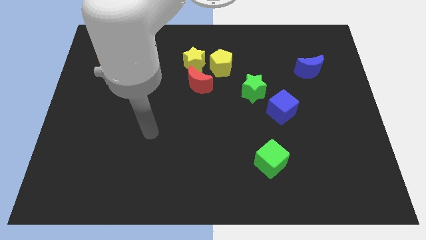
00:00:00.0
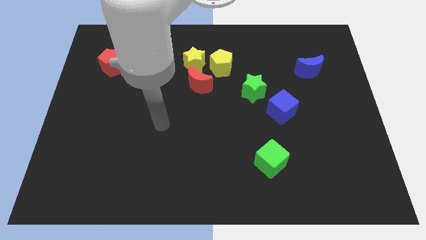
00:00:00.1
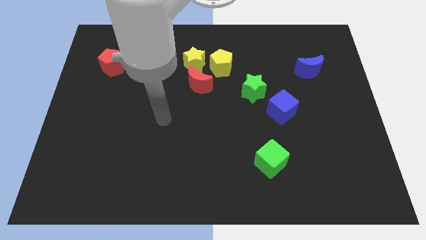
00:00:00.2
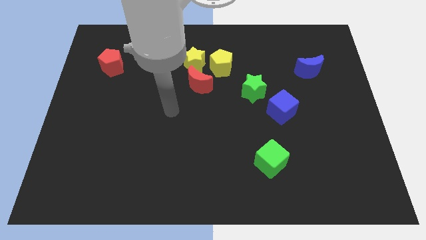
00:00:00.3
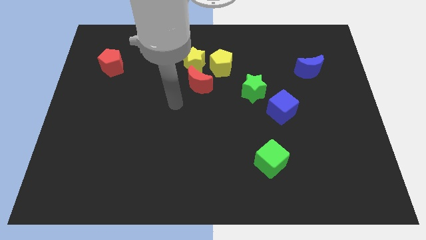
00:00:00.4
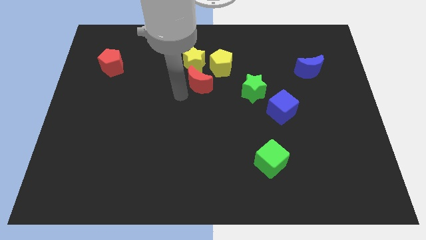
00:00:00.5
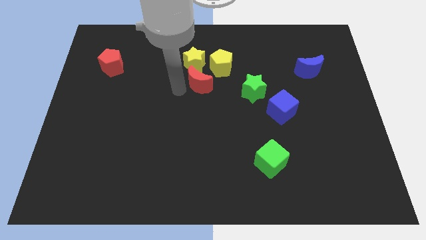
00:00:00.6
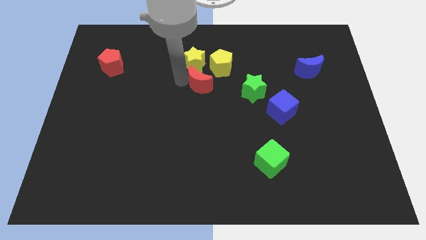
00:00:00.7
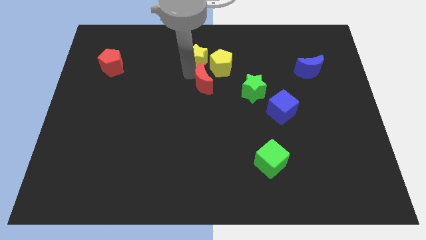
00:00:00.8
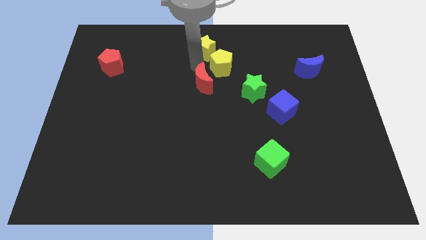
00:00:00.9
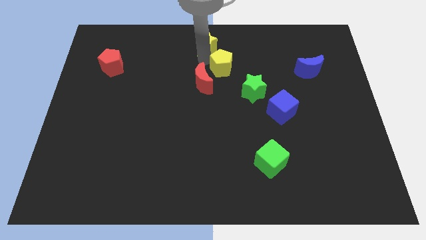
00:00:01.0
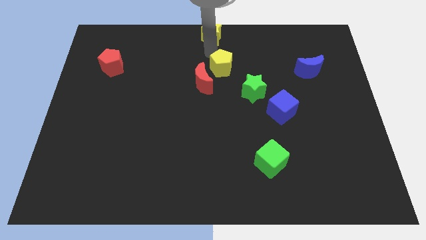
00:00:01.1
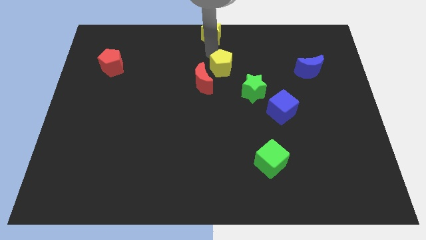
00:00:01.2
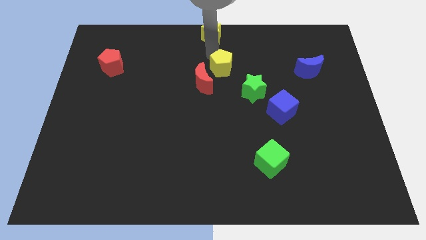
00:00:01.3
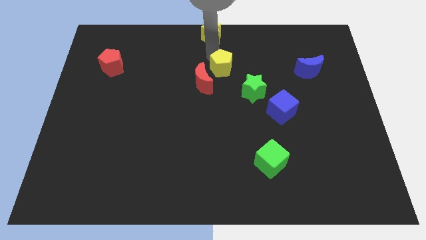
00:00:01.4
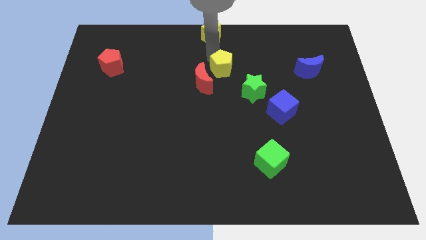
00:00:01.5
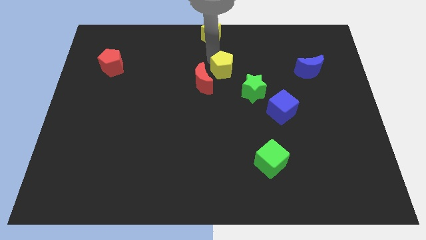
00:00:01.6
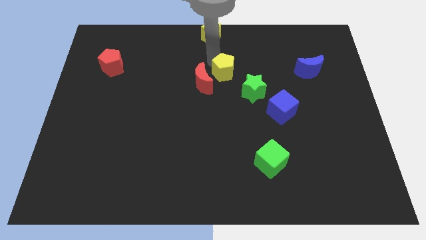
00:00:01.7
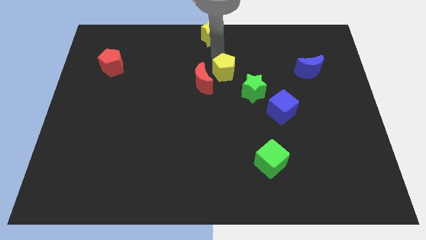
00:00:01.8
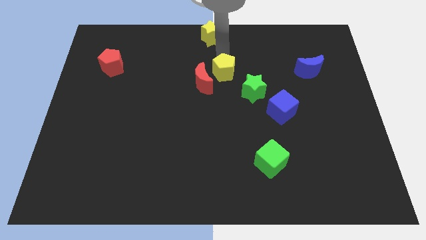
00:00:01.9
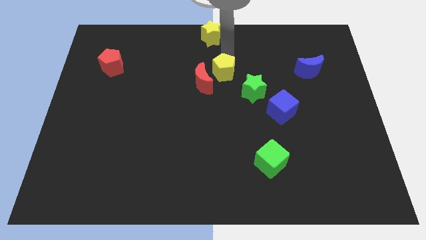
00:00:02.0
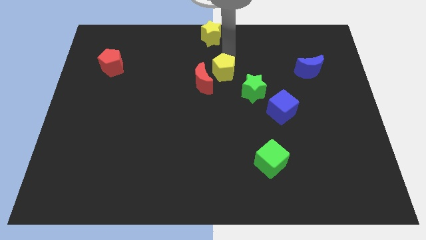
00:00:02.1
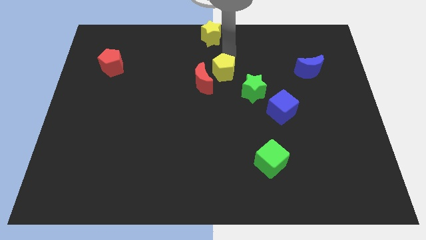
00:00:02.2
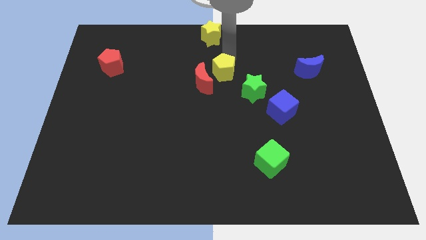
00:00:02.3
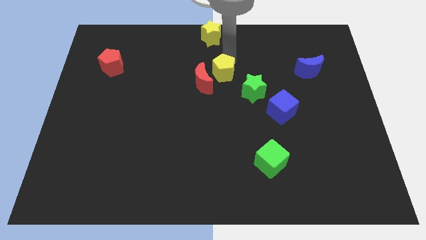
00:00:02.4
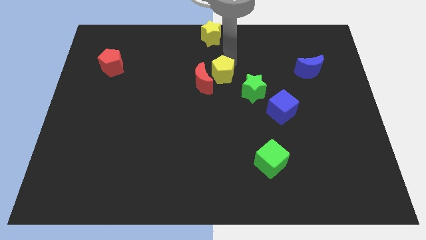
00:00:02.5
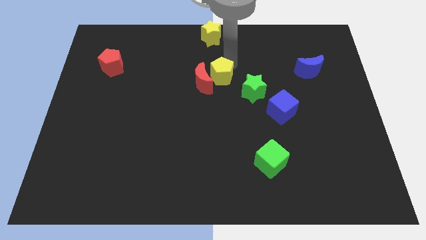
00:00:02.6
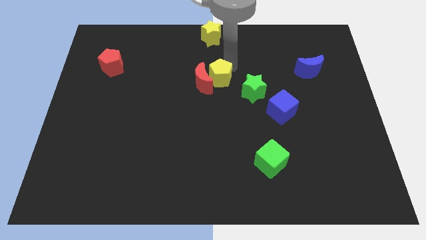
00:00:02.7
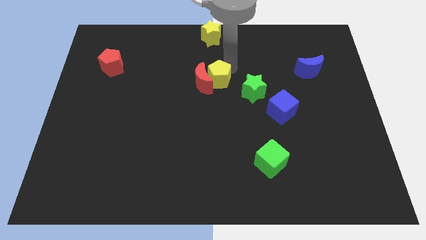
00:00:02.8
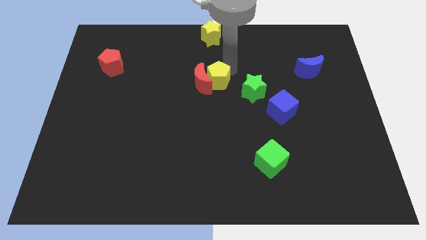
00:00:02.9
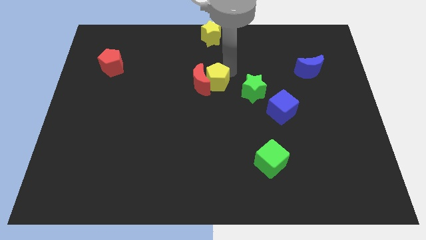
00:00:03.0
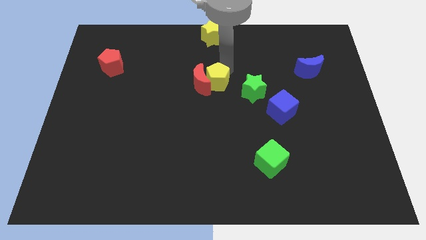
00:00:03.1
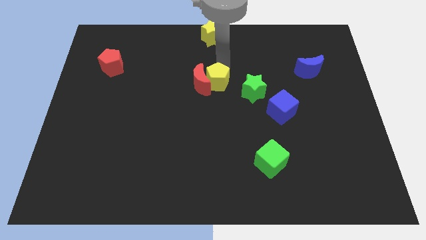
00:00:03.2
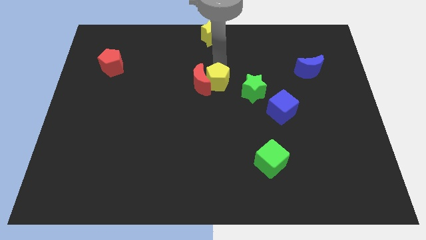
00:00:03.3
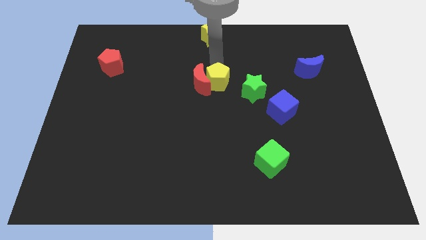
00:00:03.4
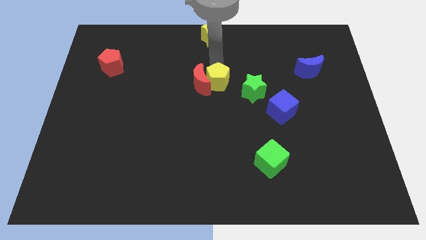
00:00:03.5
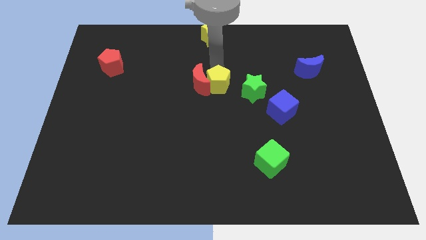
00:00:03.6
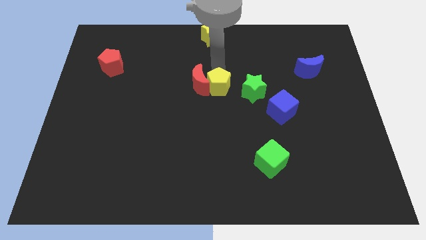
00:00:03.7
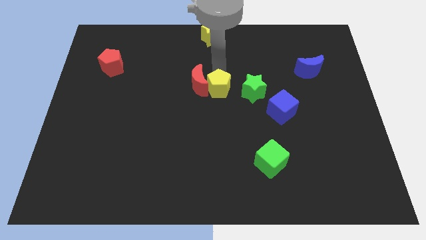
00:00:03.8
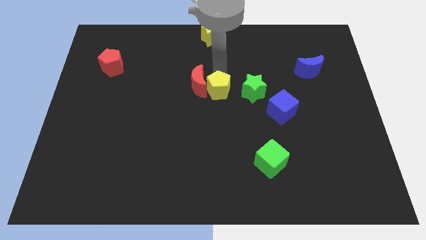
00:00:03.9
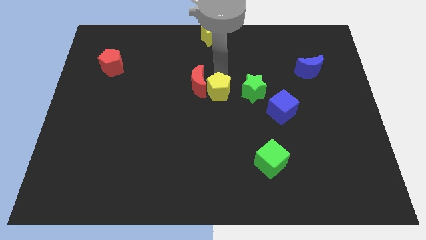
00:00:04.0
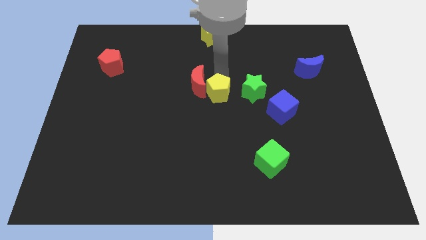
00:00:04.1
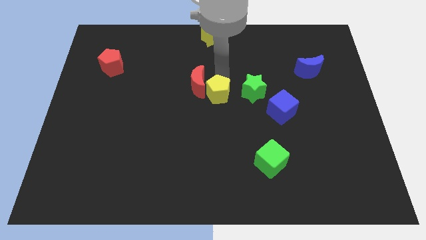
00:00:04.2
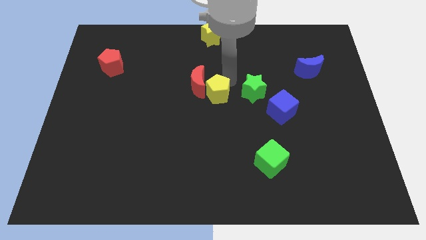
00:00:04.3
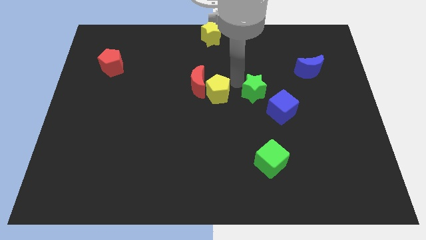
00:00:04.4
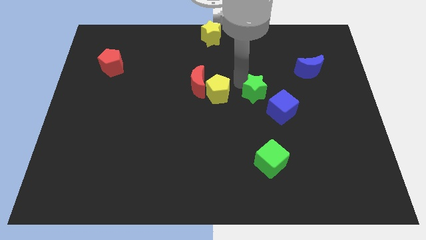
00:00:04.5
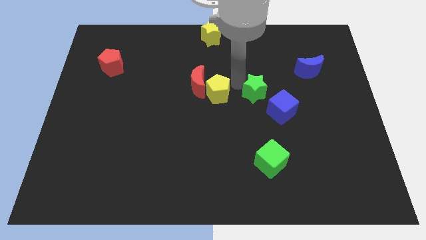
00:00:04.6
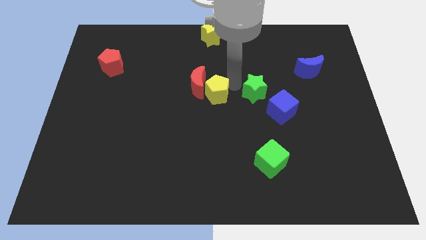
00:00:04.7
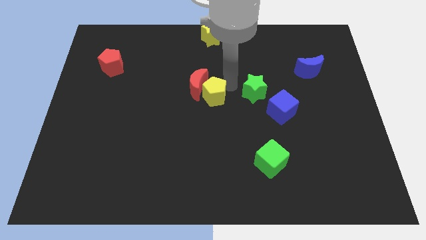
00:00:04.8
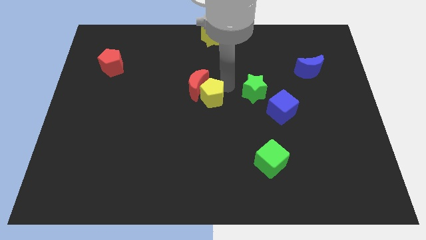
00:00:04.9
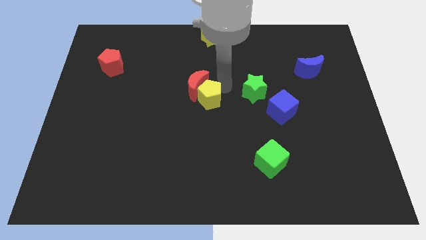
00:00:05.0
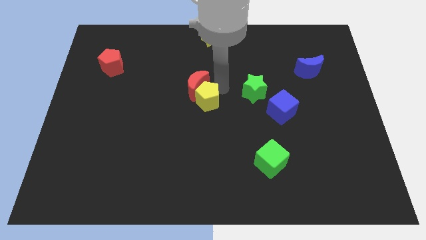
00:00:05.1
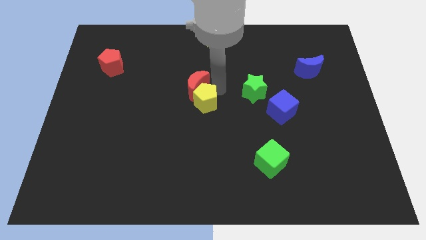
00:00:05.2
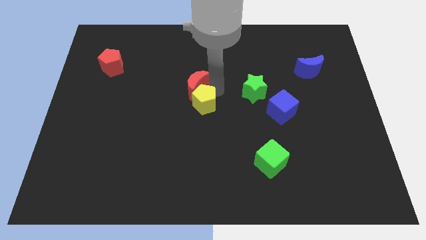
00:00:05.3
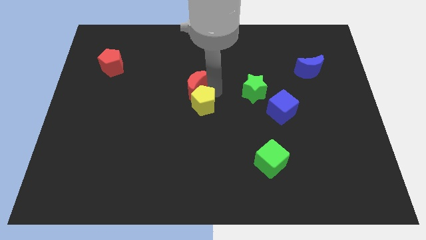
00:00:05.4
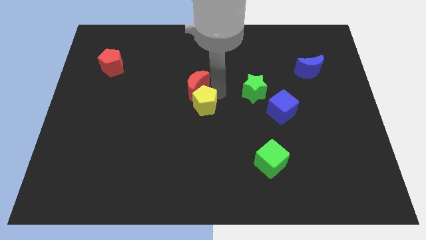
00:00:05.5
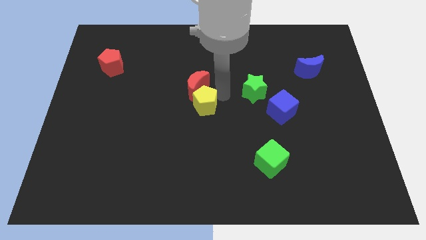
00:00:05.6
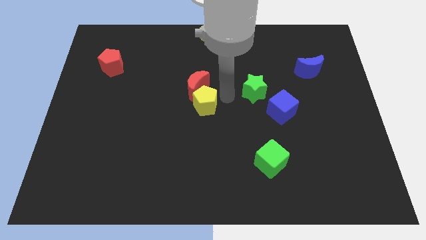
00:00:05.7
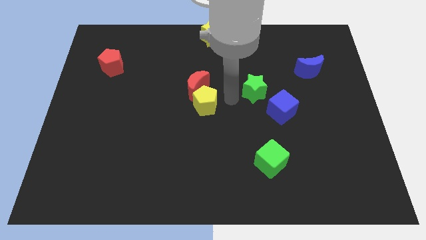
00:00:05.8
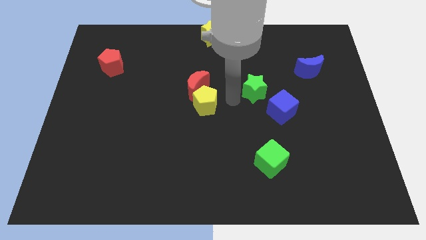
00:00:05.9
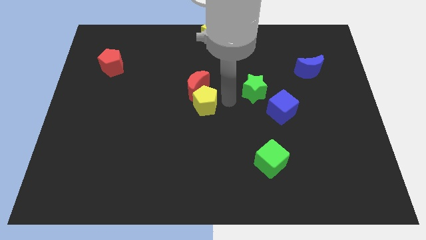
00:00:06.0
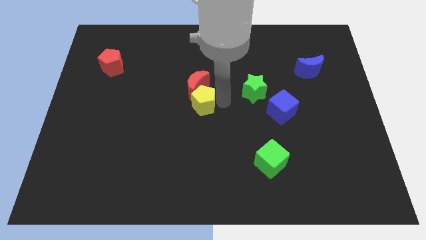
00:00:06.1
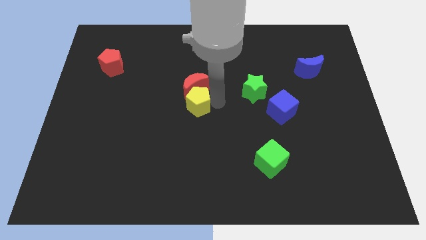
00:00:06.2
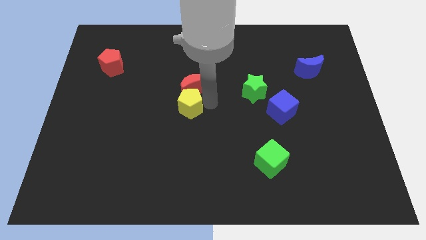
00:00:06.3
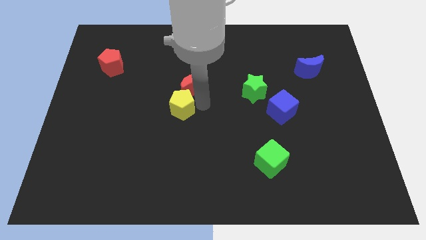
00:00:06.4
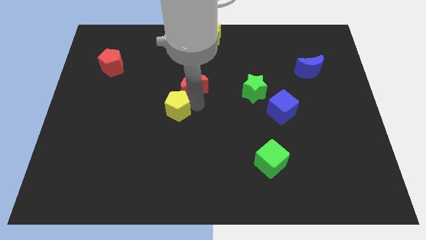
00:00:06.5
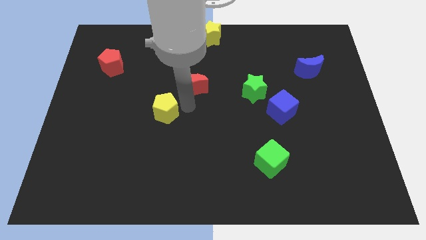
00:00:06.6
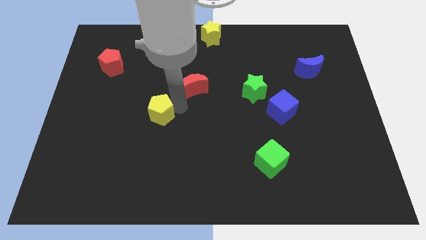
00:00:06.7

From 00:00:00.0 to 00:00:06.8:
push the yellow pentagon downwards and then left

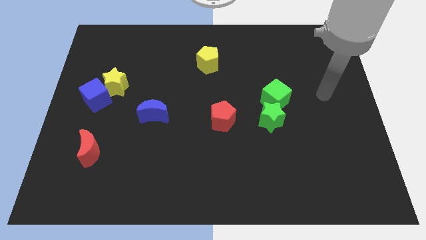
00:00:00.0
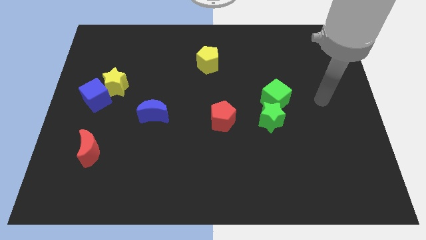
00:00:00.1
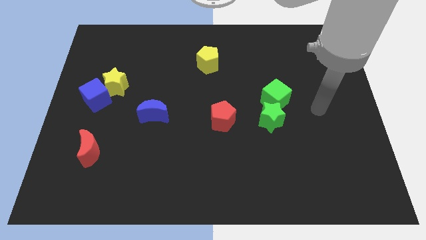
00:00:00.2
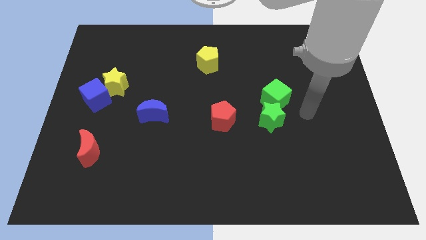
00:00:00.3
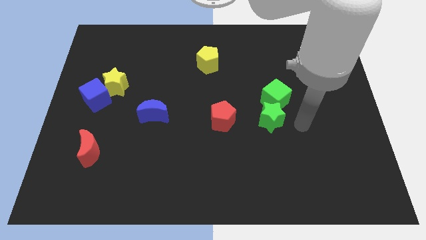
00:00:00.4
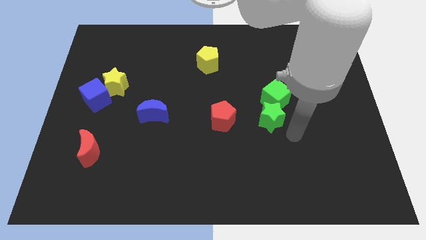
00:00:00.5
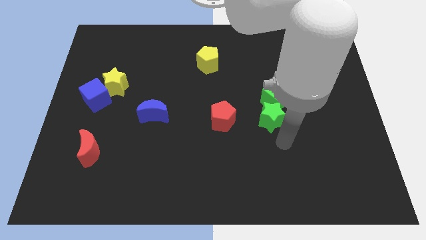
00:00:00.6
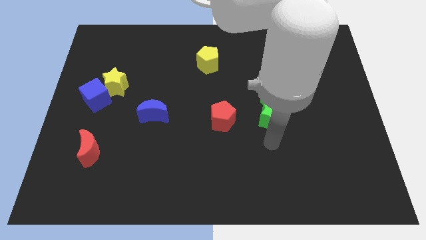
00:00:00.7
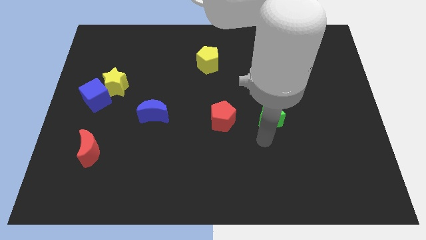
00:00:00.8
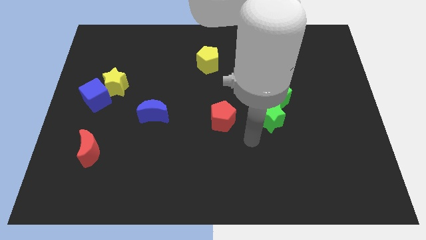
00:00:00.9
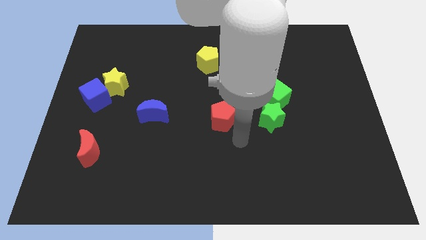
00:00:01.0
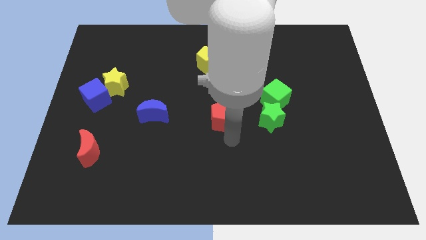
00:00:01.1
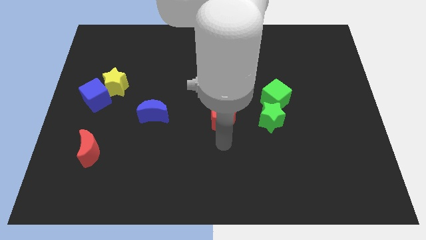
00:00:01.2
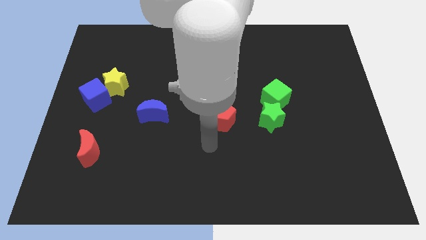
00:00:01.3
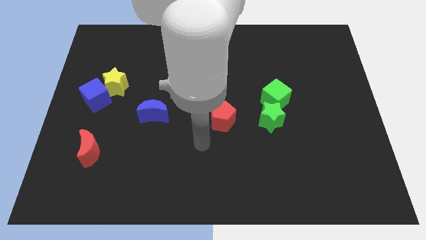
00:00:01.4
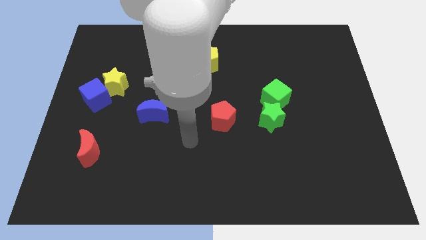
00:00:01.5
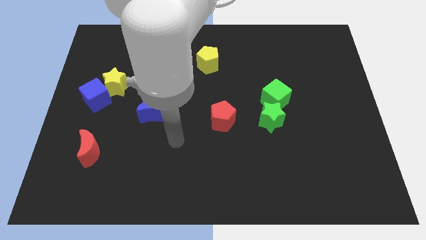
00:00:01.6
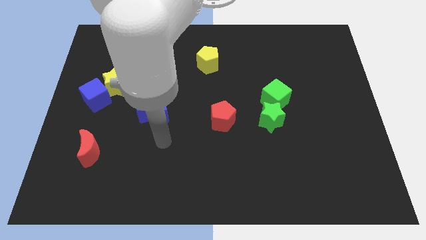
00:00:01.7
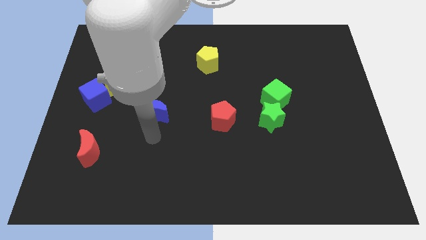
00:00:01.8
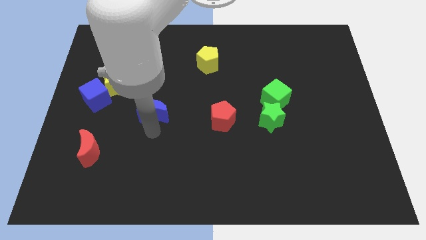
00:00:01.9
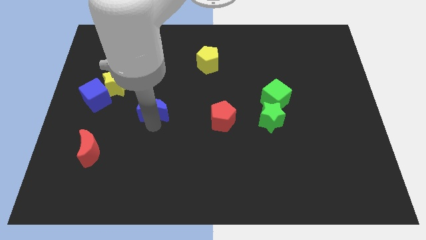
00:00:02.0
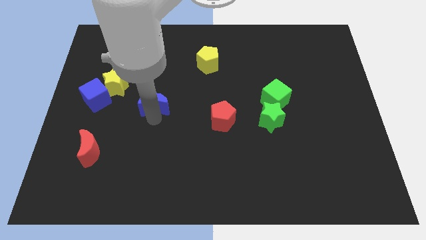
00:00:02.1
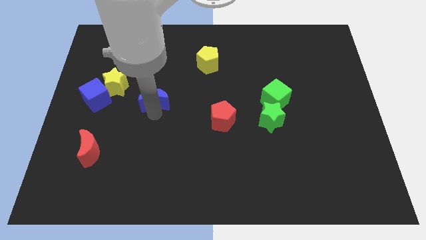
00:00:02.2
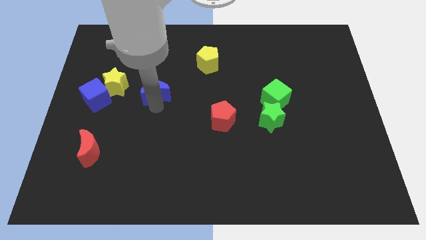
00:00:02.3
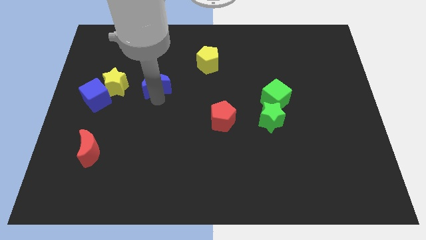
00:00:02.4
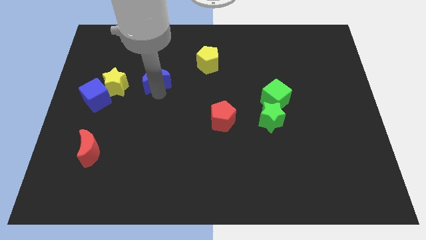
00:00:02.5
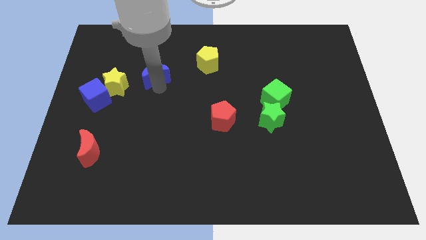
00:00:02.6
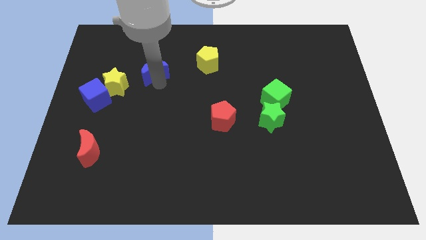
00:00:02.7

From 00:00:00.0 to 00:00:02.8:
move the blue moon up and to the left diagonally a little bit
